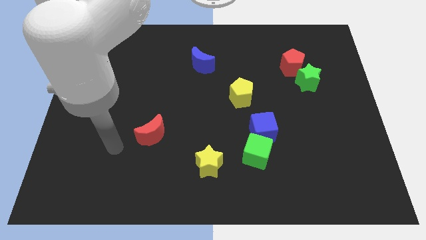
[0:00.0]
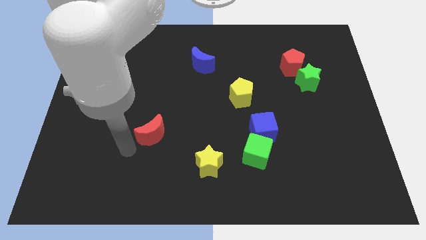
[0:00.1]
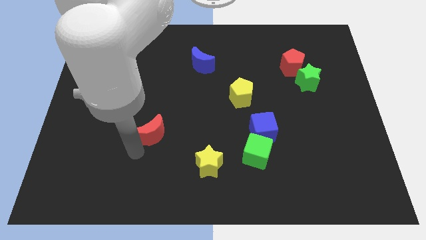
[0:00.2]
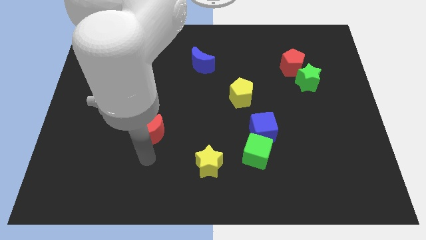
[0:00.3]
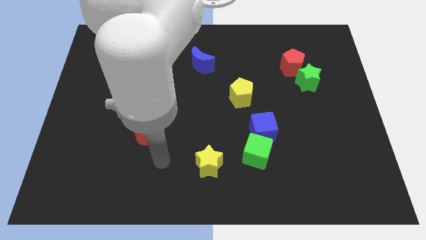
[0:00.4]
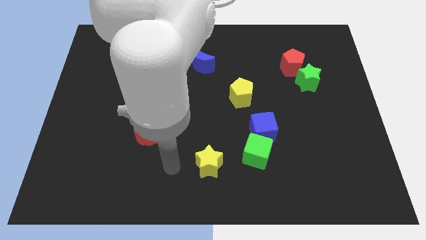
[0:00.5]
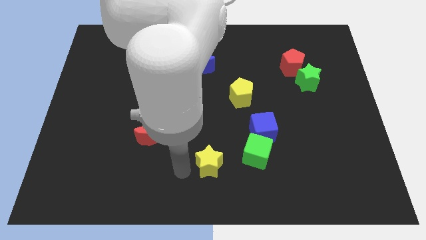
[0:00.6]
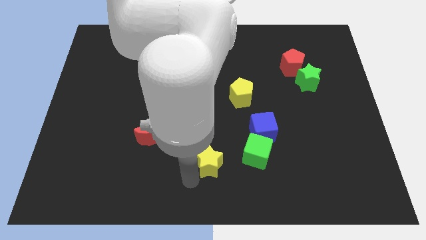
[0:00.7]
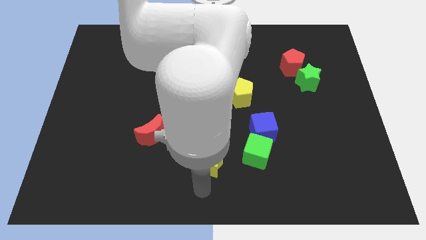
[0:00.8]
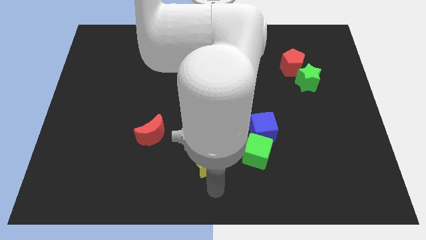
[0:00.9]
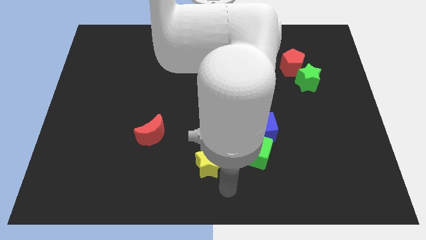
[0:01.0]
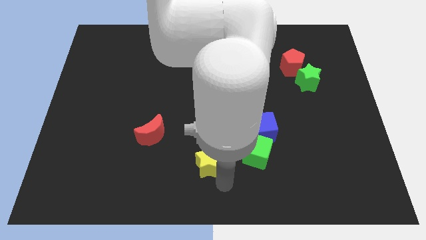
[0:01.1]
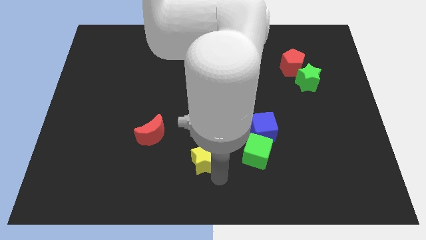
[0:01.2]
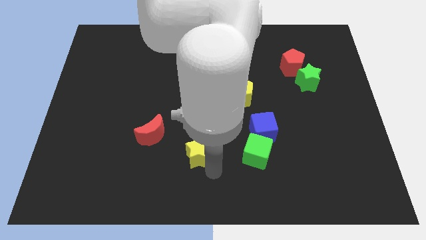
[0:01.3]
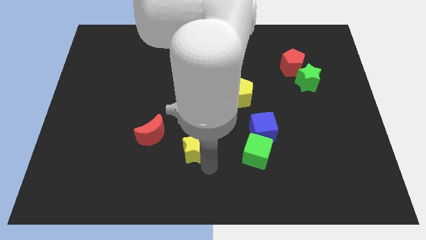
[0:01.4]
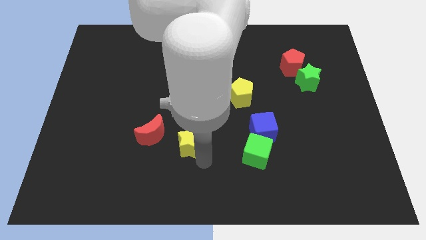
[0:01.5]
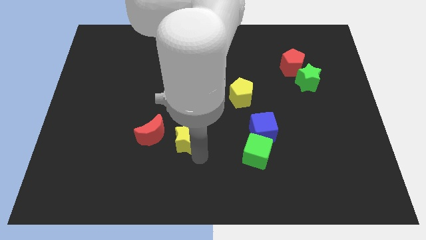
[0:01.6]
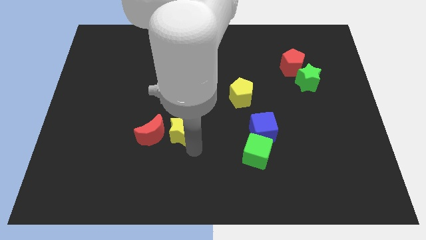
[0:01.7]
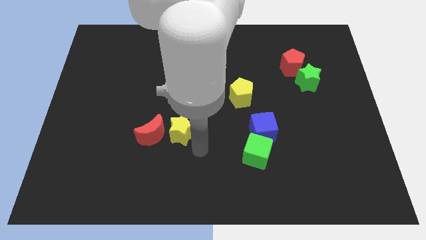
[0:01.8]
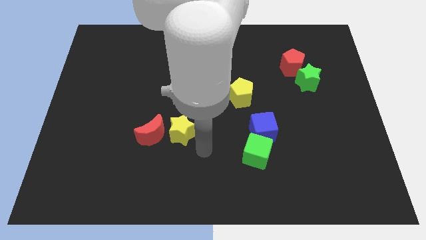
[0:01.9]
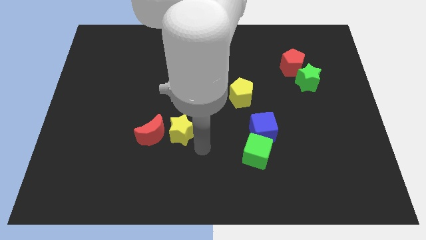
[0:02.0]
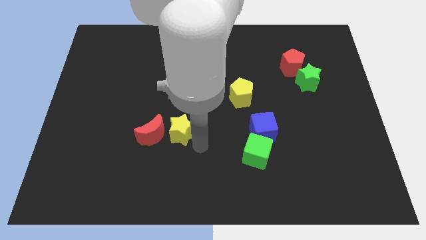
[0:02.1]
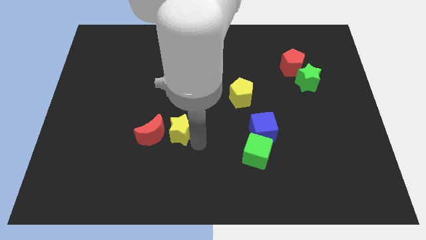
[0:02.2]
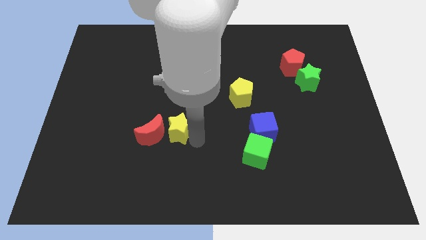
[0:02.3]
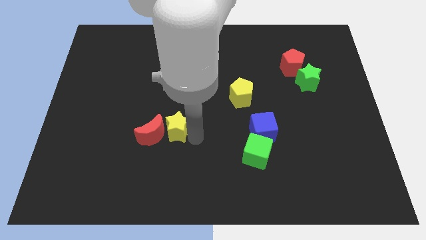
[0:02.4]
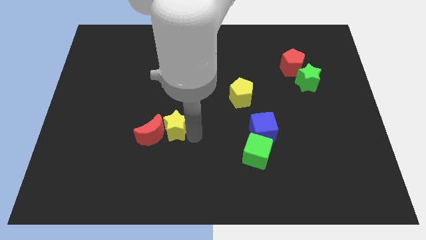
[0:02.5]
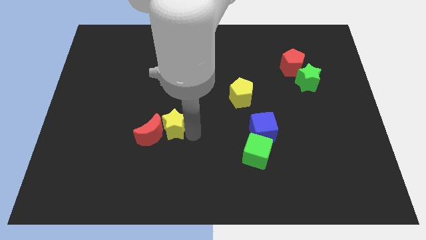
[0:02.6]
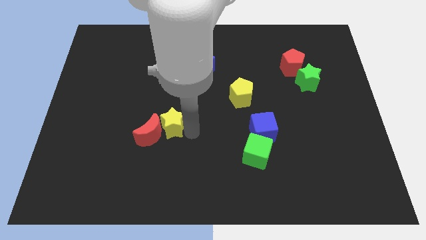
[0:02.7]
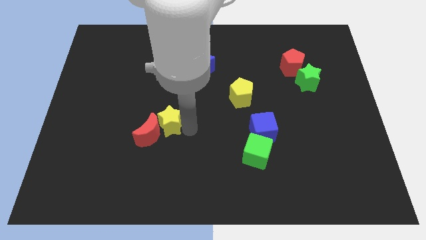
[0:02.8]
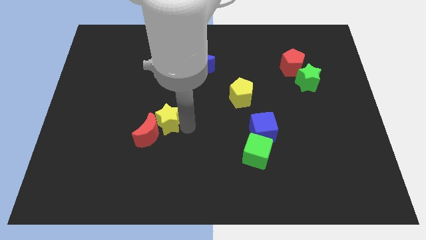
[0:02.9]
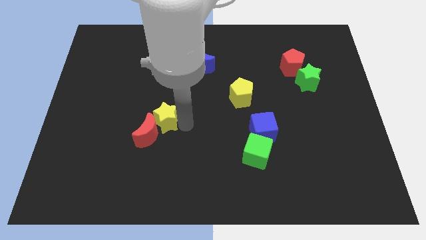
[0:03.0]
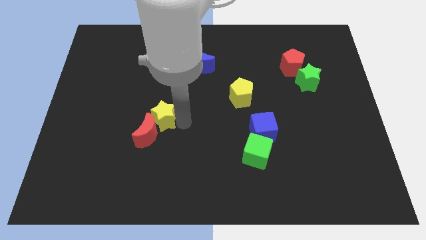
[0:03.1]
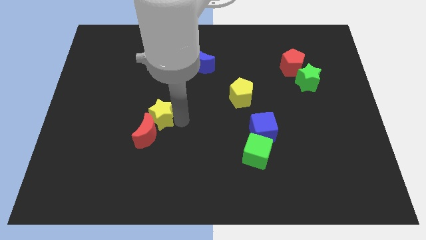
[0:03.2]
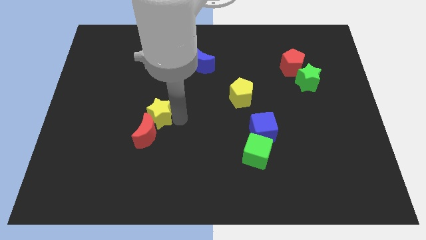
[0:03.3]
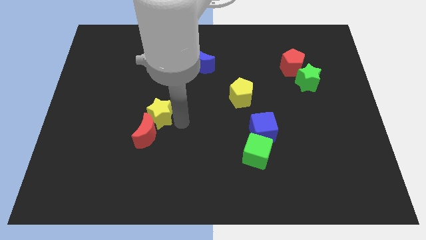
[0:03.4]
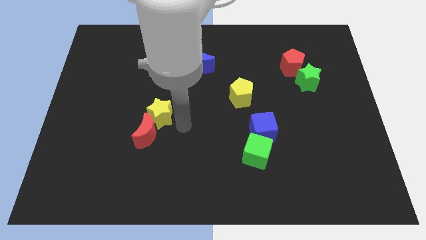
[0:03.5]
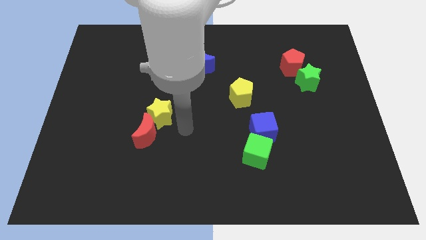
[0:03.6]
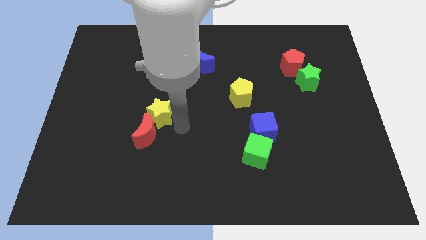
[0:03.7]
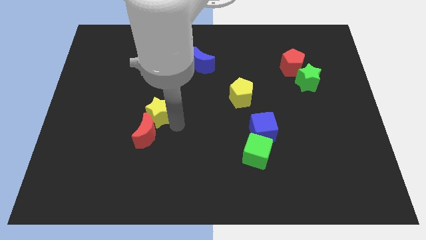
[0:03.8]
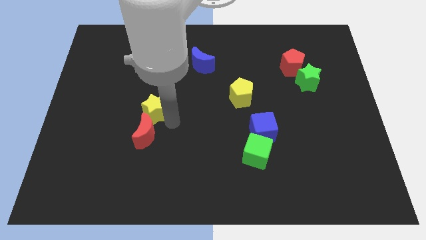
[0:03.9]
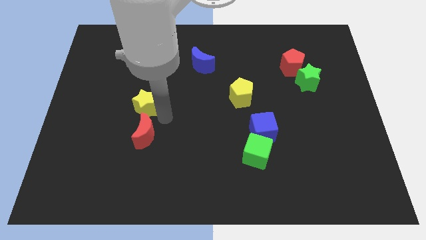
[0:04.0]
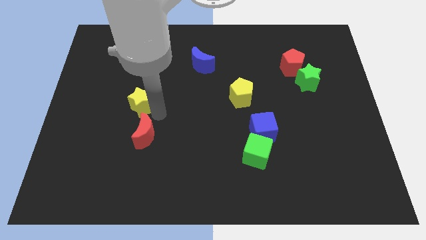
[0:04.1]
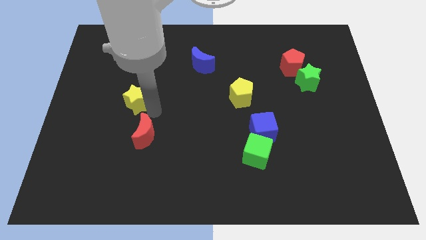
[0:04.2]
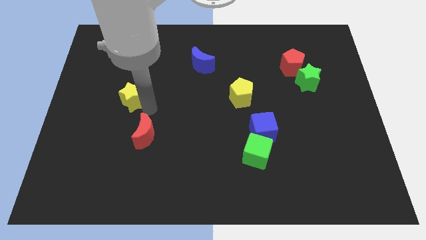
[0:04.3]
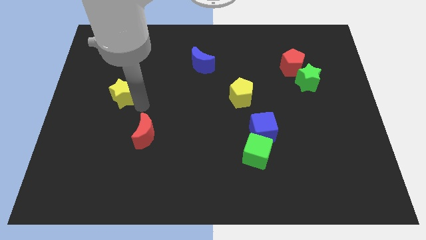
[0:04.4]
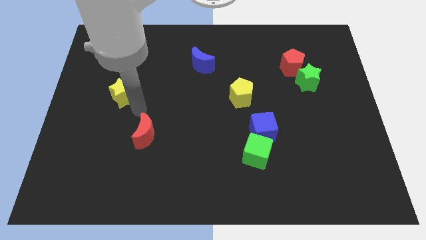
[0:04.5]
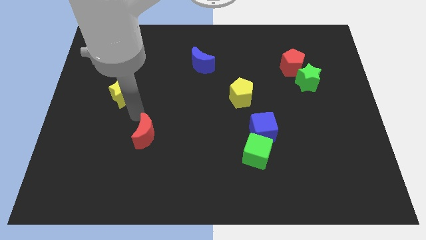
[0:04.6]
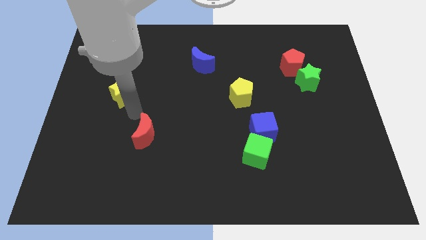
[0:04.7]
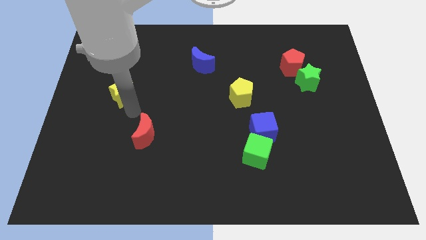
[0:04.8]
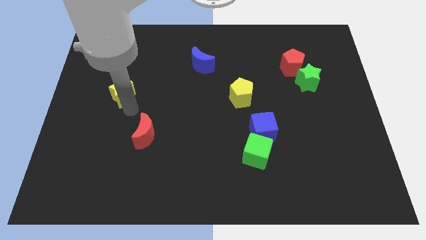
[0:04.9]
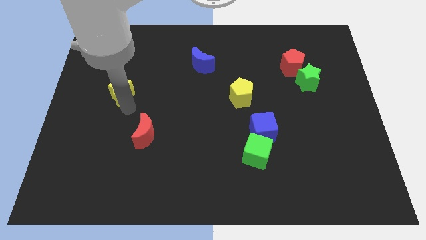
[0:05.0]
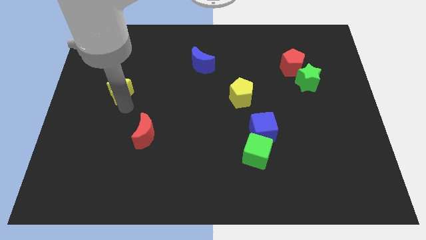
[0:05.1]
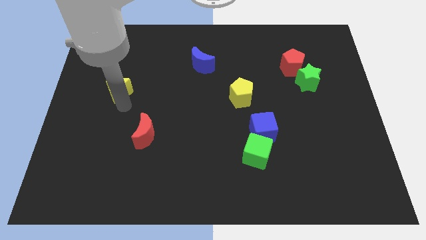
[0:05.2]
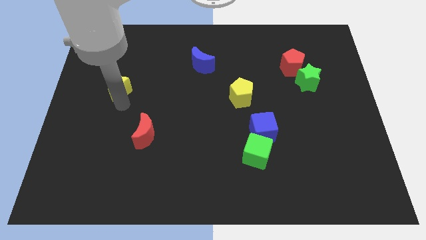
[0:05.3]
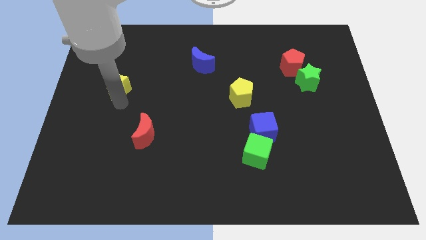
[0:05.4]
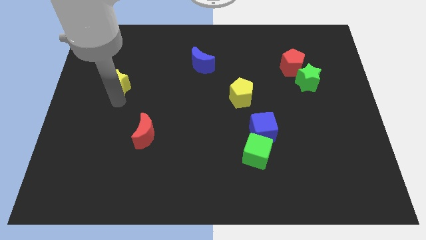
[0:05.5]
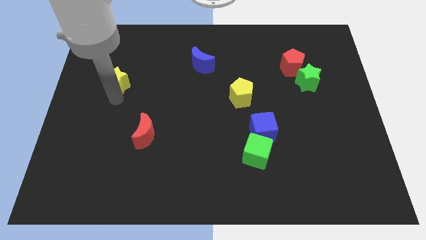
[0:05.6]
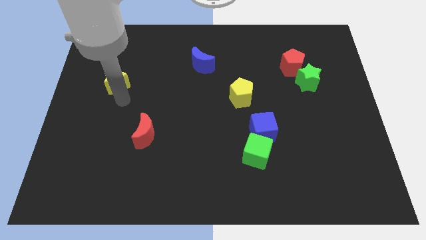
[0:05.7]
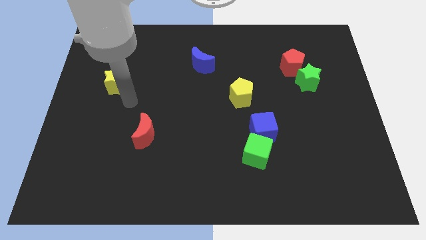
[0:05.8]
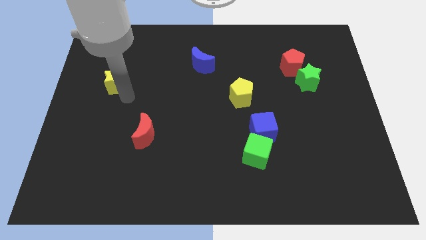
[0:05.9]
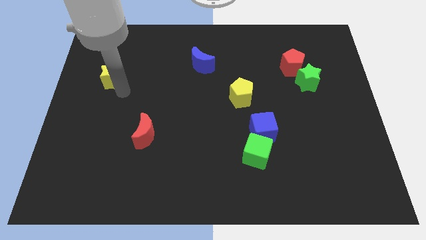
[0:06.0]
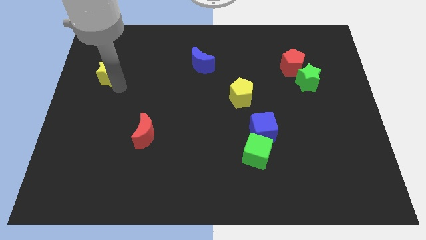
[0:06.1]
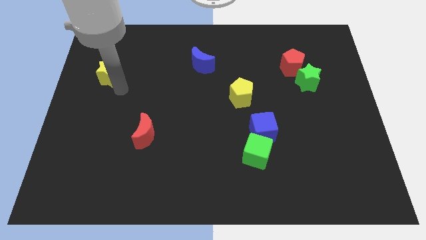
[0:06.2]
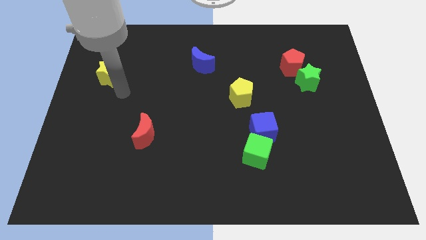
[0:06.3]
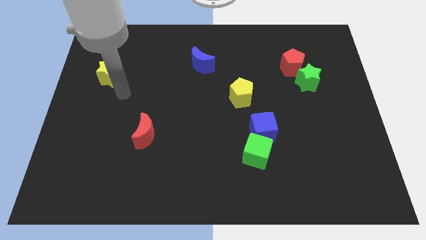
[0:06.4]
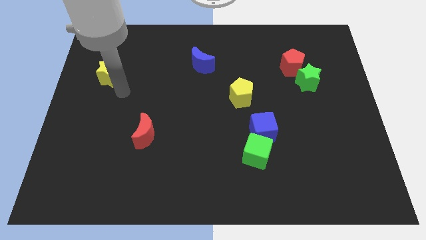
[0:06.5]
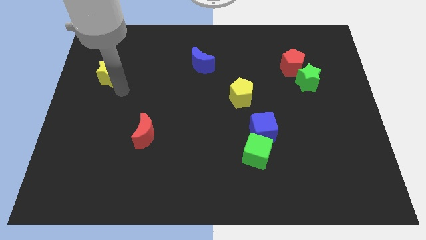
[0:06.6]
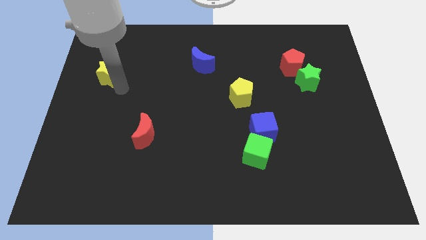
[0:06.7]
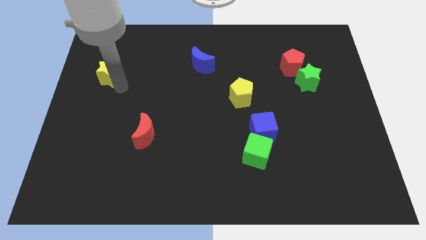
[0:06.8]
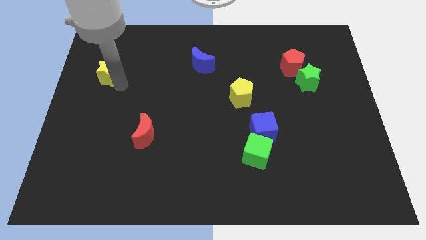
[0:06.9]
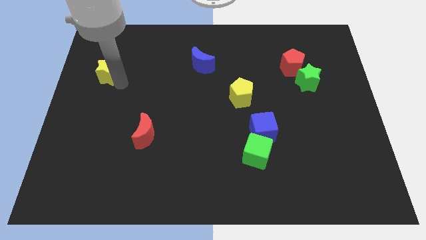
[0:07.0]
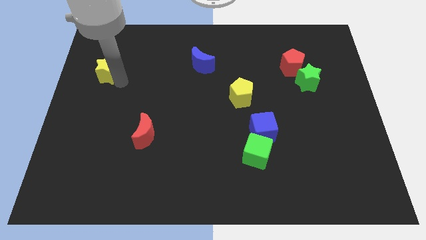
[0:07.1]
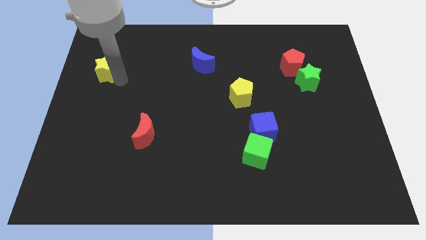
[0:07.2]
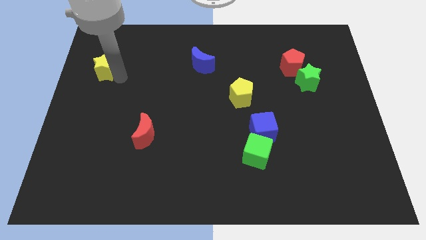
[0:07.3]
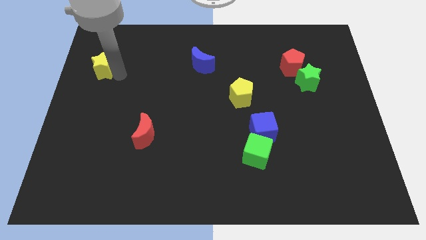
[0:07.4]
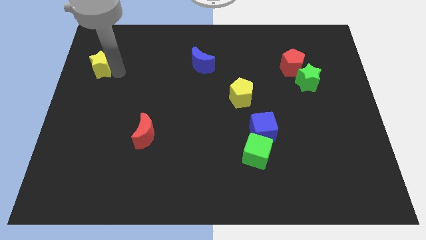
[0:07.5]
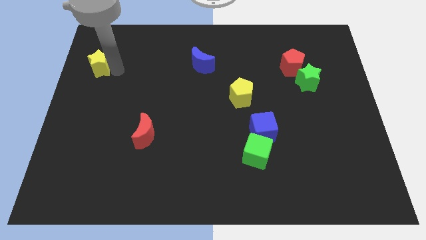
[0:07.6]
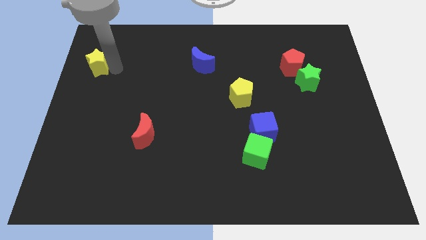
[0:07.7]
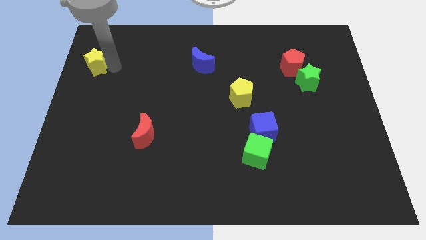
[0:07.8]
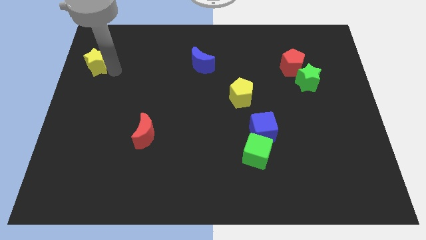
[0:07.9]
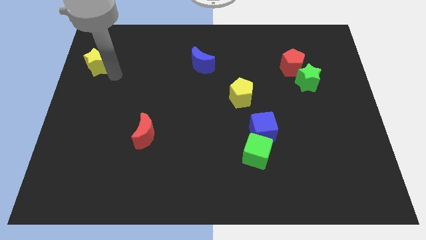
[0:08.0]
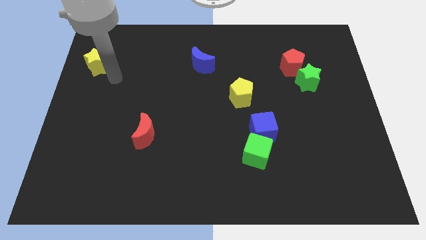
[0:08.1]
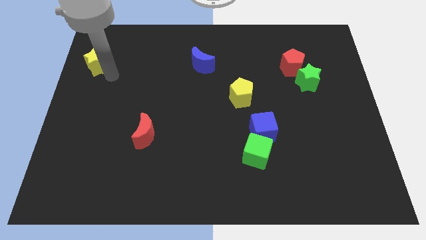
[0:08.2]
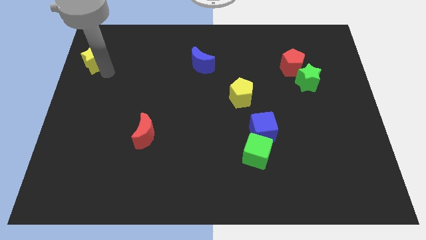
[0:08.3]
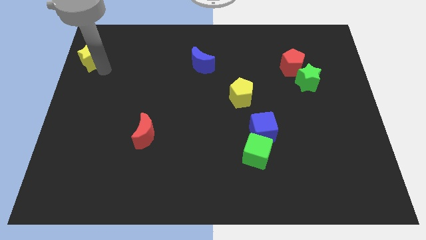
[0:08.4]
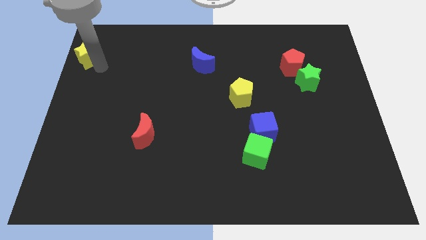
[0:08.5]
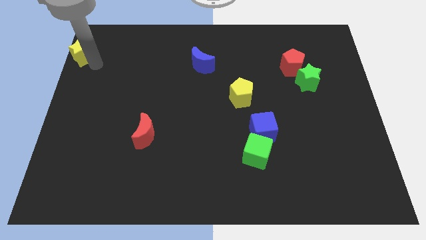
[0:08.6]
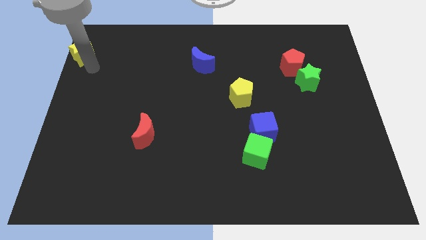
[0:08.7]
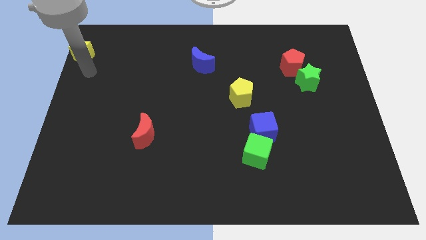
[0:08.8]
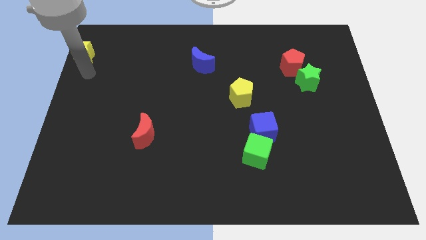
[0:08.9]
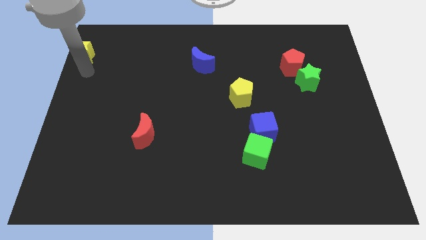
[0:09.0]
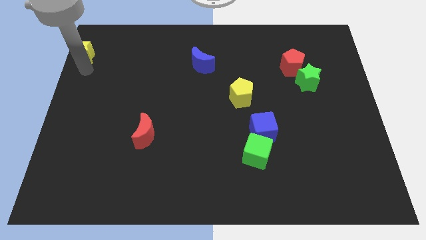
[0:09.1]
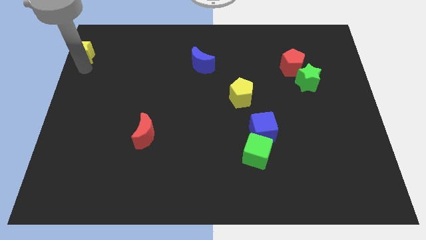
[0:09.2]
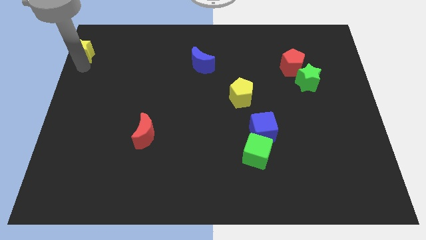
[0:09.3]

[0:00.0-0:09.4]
push the yellow star to the upper left corner
